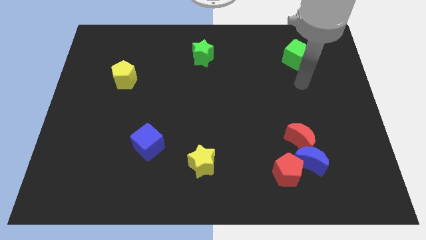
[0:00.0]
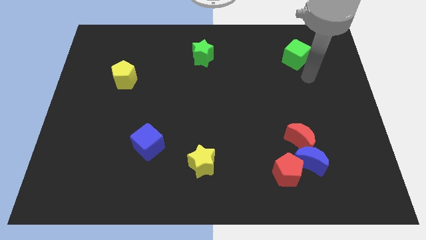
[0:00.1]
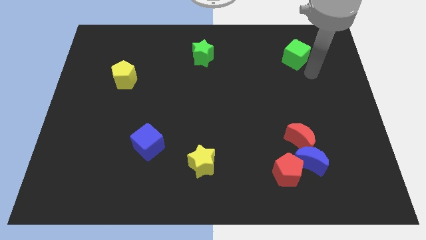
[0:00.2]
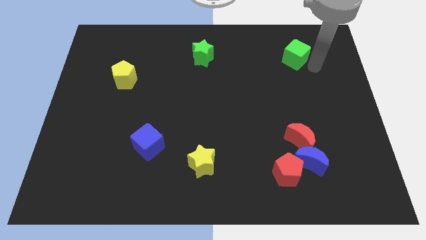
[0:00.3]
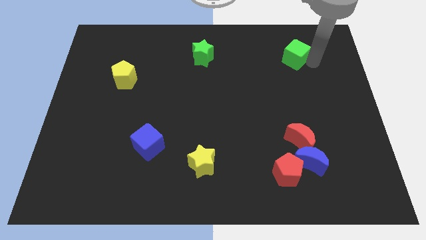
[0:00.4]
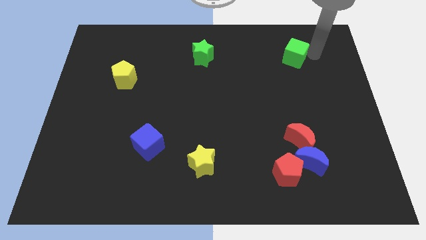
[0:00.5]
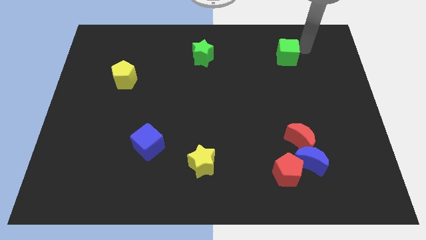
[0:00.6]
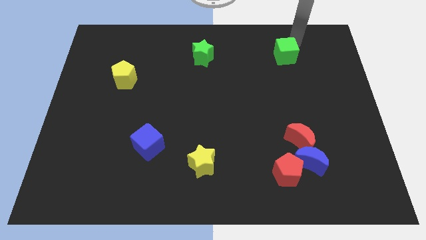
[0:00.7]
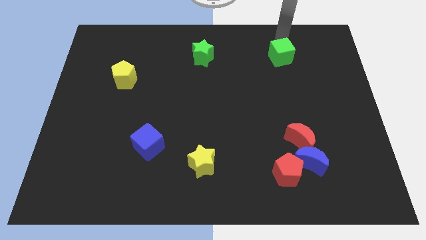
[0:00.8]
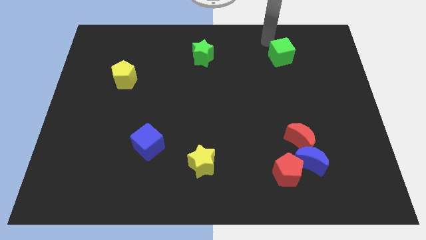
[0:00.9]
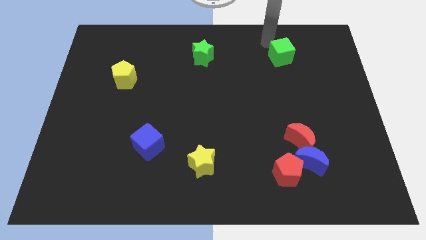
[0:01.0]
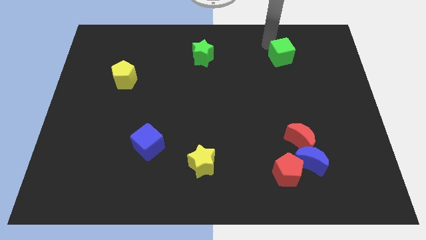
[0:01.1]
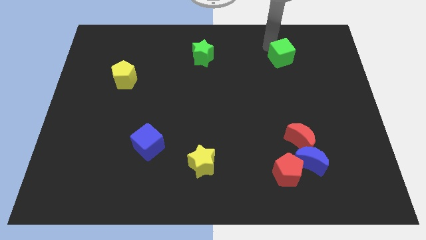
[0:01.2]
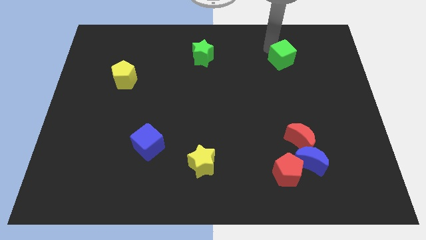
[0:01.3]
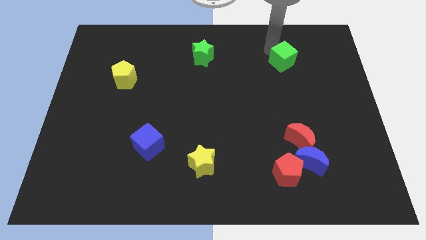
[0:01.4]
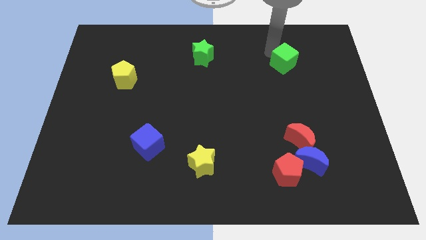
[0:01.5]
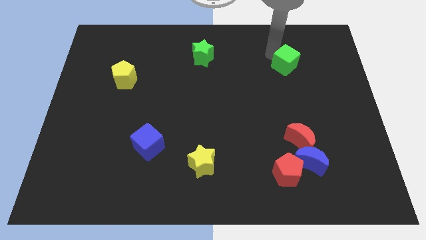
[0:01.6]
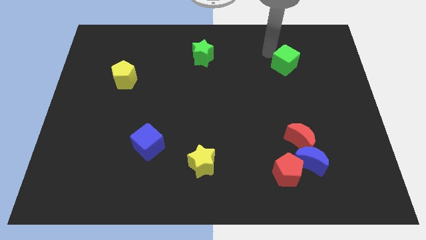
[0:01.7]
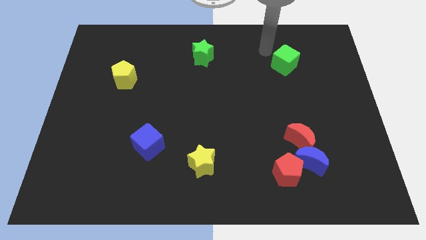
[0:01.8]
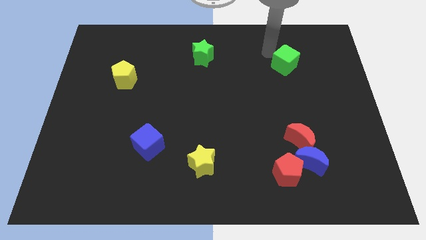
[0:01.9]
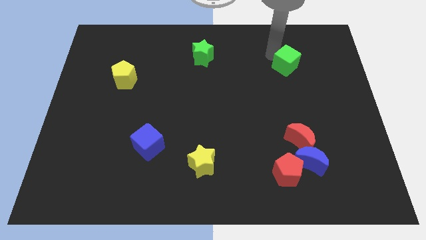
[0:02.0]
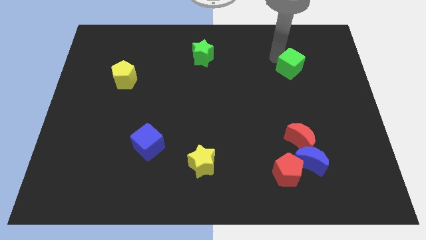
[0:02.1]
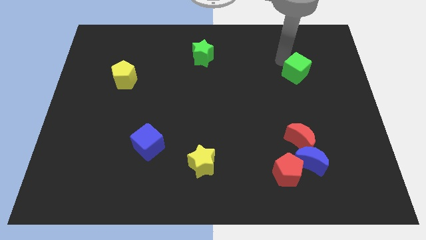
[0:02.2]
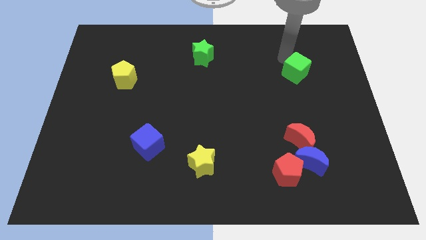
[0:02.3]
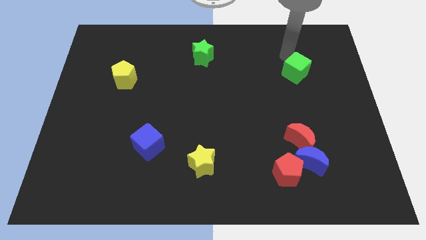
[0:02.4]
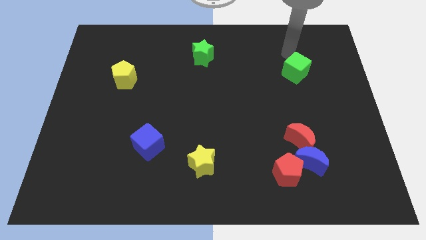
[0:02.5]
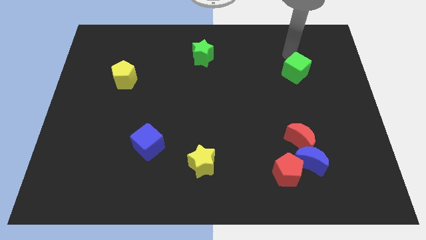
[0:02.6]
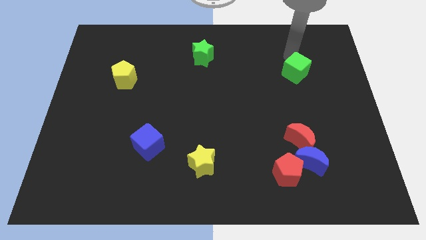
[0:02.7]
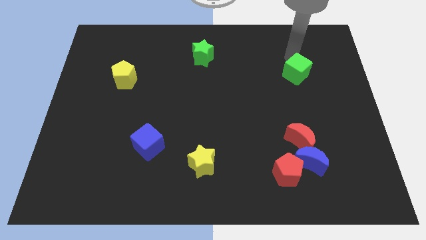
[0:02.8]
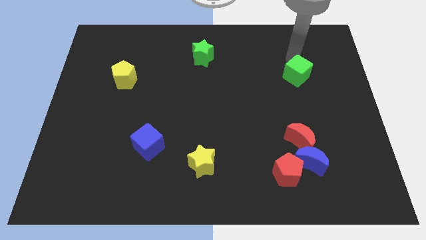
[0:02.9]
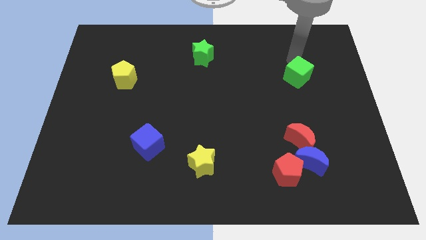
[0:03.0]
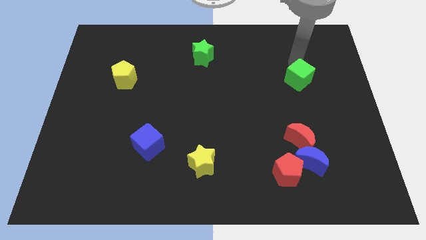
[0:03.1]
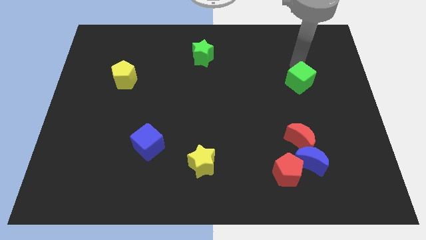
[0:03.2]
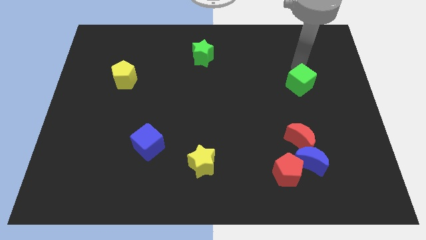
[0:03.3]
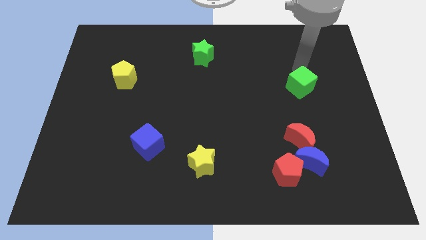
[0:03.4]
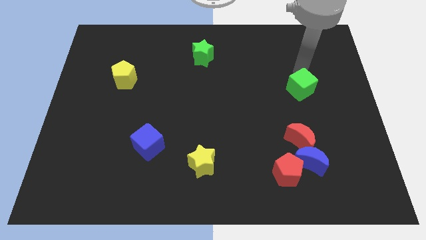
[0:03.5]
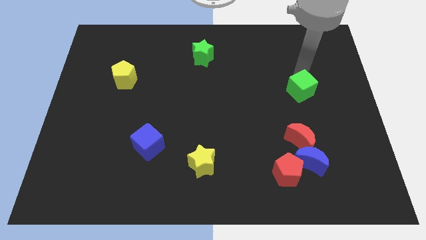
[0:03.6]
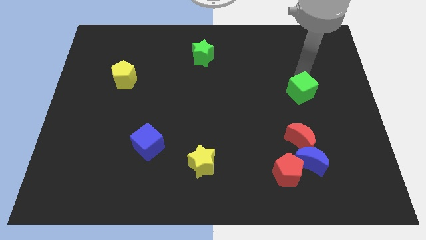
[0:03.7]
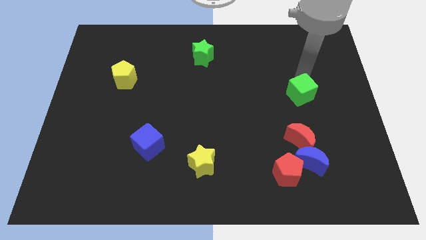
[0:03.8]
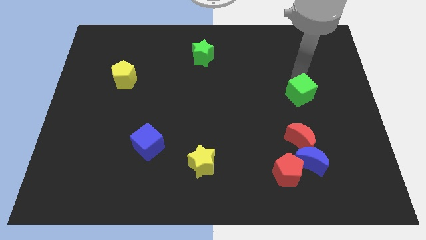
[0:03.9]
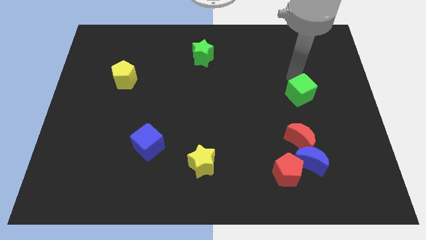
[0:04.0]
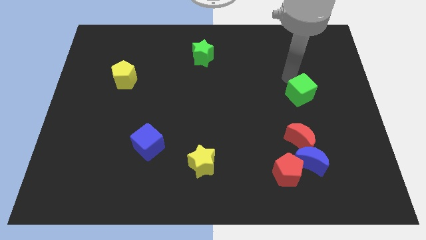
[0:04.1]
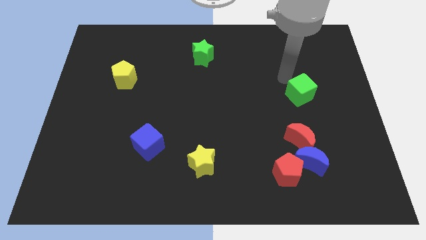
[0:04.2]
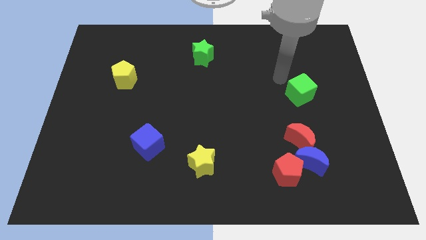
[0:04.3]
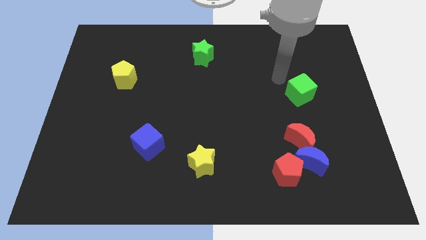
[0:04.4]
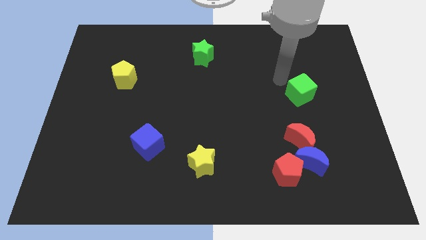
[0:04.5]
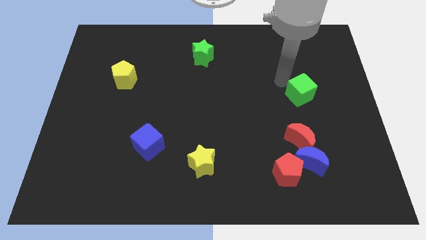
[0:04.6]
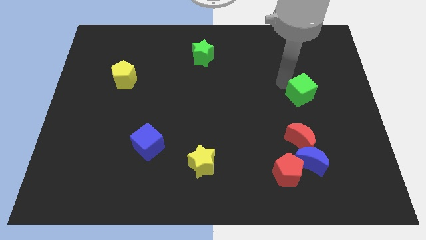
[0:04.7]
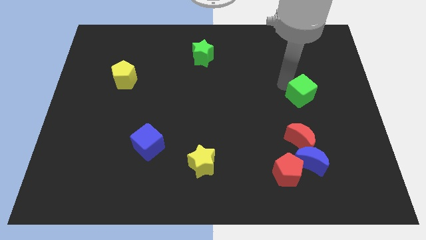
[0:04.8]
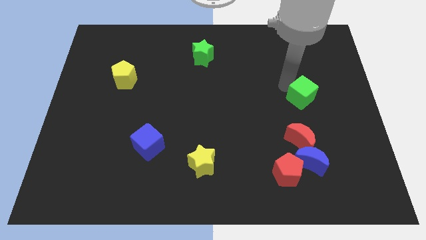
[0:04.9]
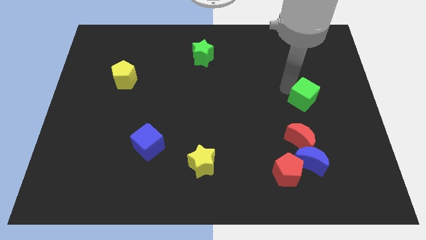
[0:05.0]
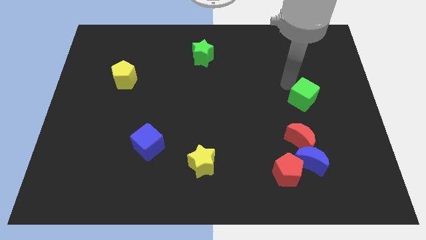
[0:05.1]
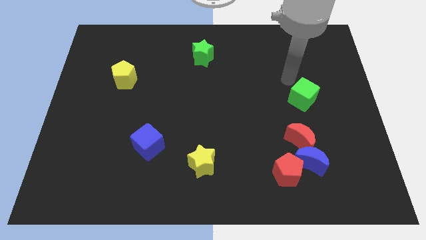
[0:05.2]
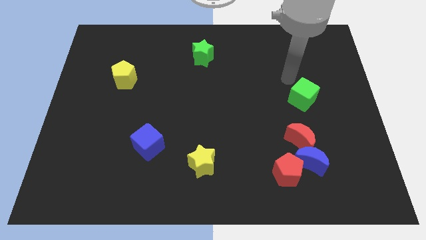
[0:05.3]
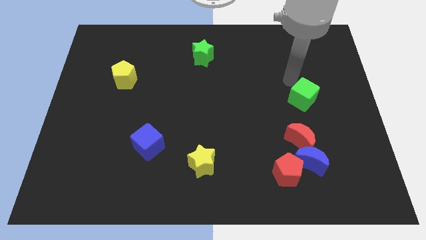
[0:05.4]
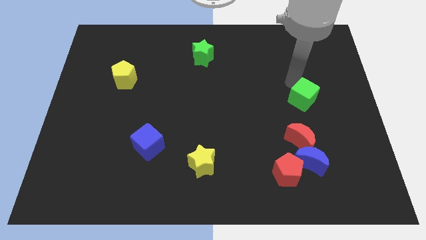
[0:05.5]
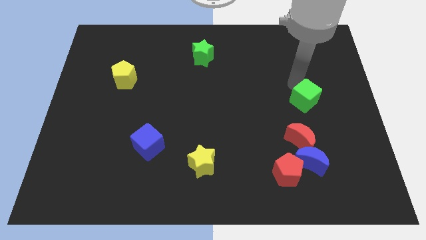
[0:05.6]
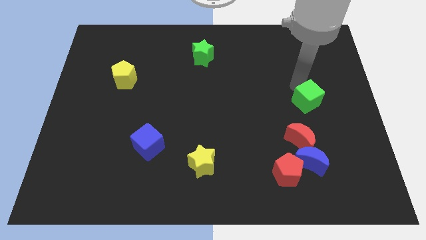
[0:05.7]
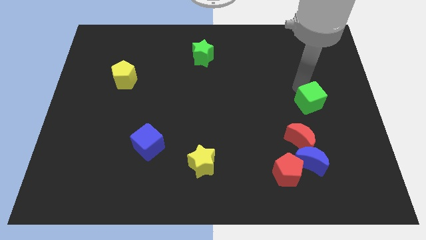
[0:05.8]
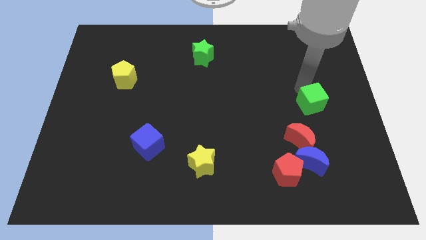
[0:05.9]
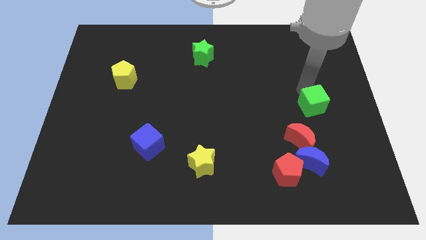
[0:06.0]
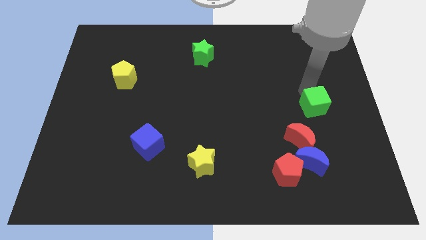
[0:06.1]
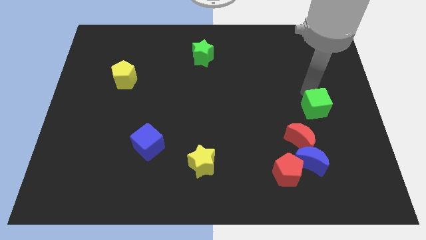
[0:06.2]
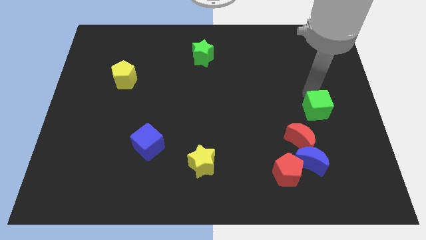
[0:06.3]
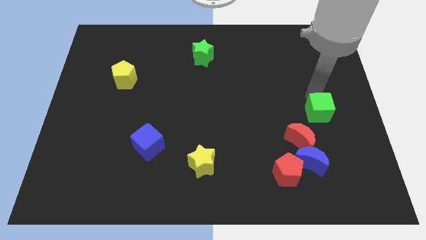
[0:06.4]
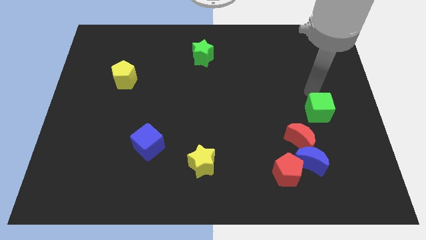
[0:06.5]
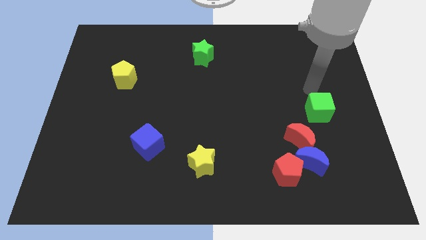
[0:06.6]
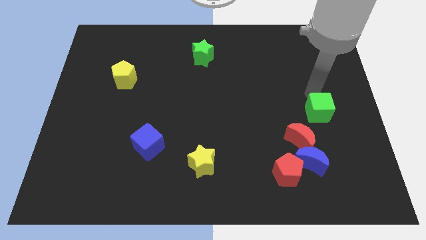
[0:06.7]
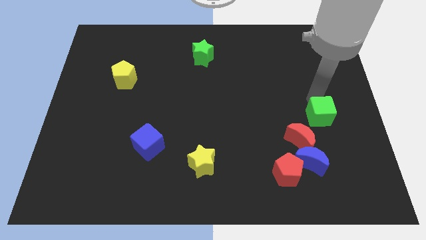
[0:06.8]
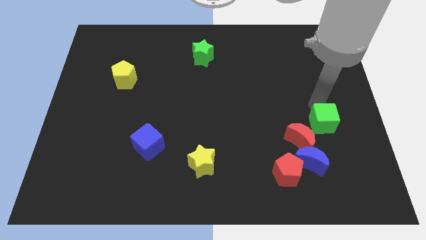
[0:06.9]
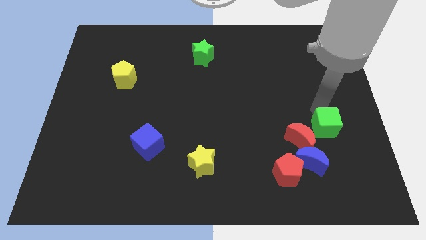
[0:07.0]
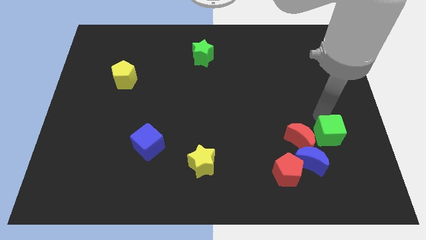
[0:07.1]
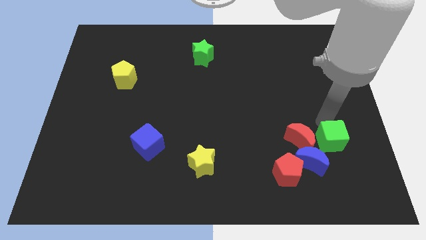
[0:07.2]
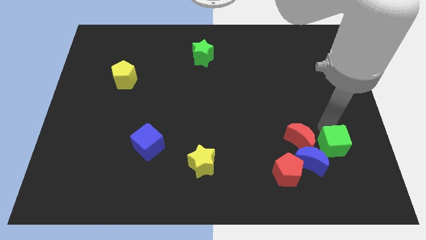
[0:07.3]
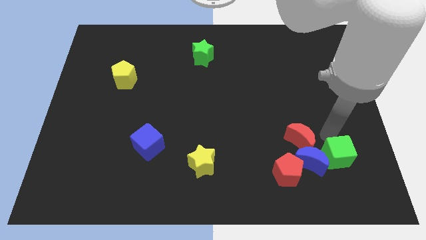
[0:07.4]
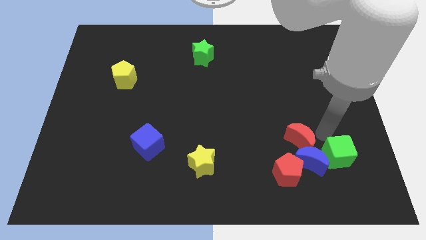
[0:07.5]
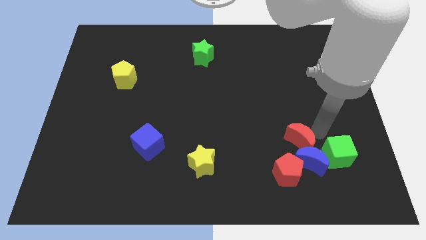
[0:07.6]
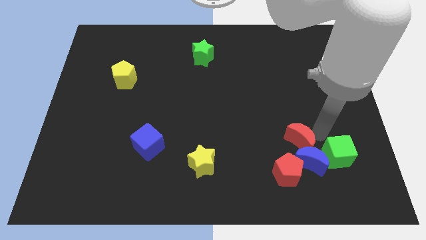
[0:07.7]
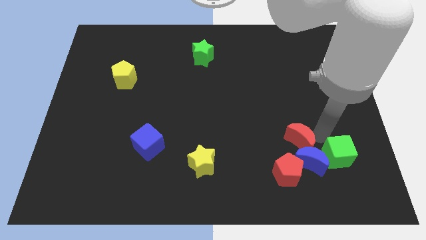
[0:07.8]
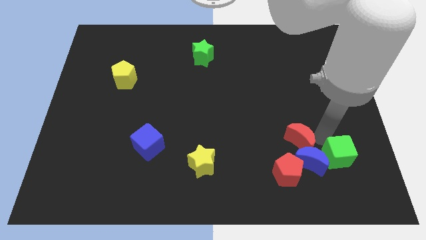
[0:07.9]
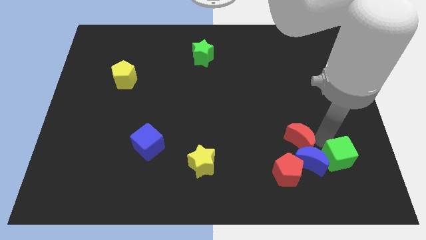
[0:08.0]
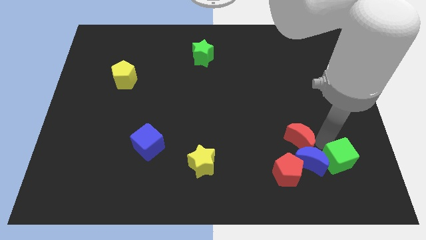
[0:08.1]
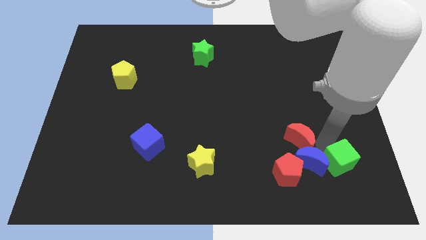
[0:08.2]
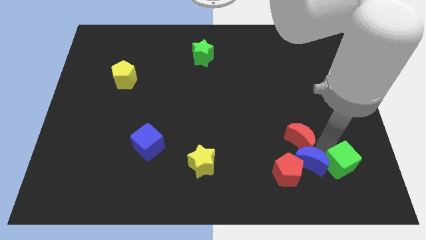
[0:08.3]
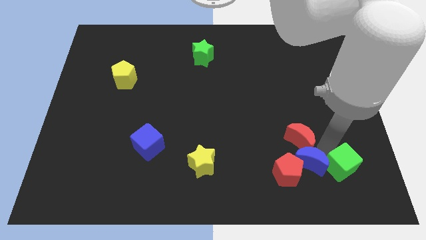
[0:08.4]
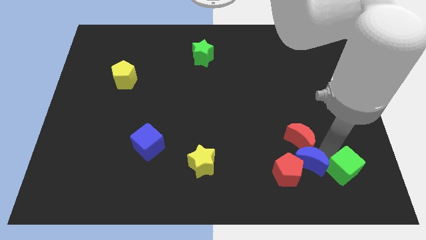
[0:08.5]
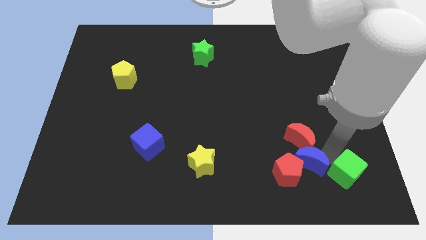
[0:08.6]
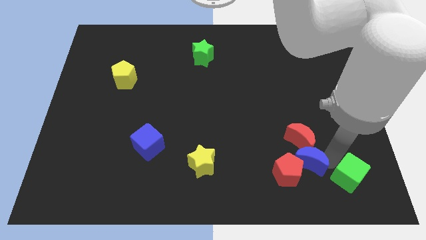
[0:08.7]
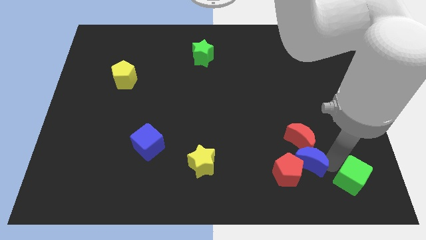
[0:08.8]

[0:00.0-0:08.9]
push the green cube to the bottom right of the board
